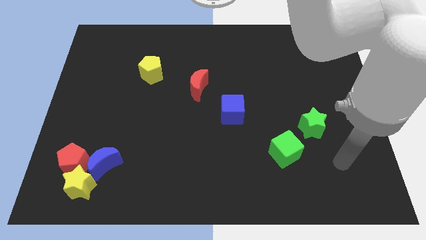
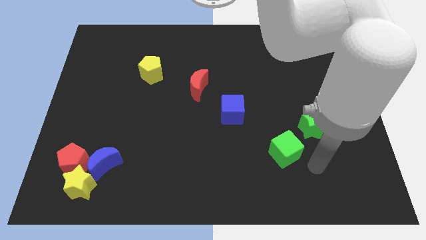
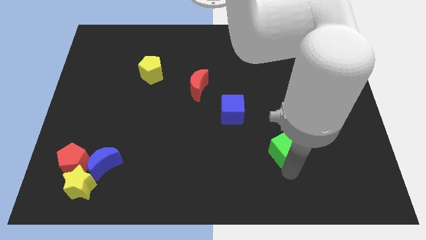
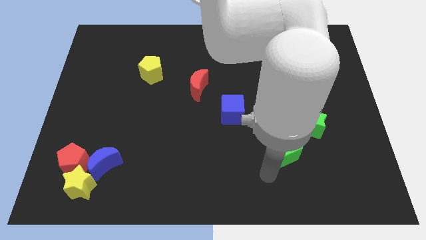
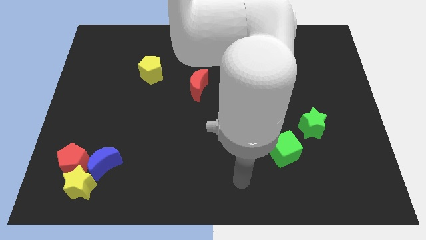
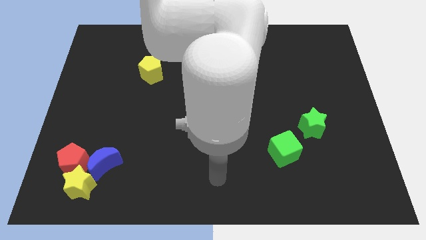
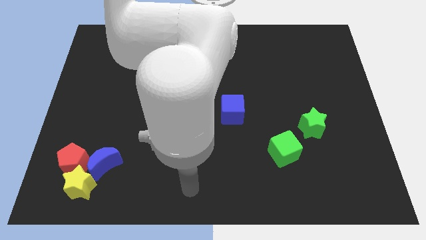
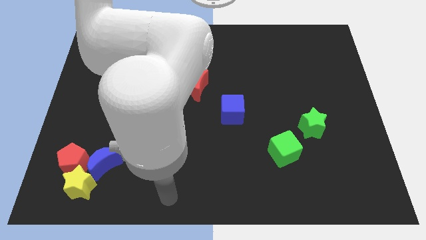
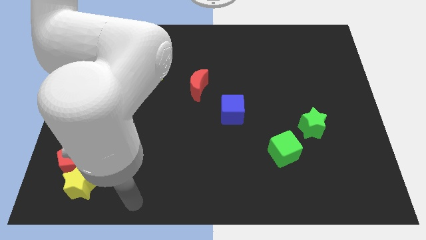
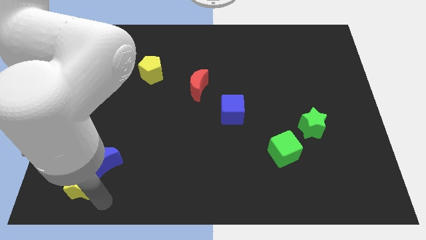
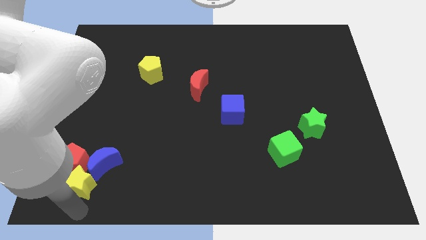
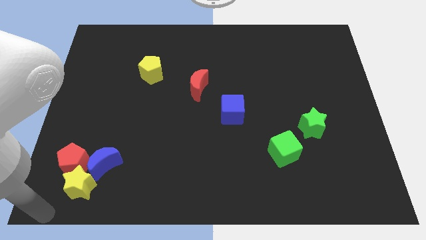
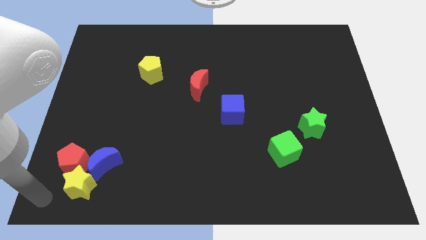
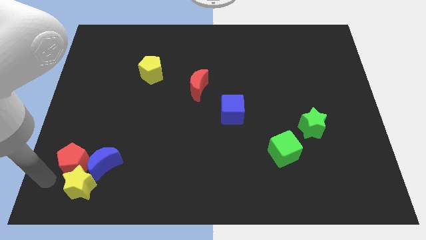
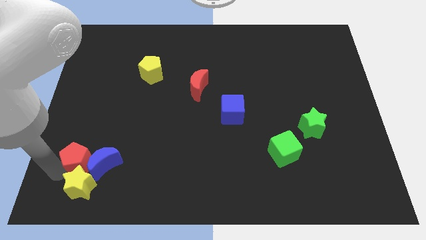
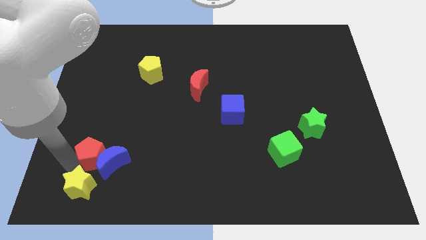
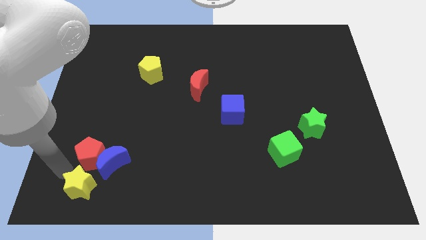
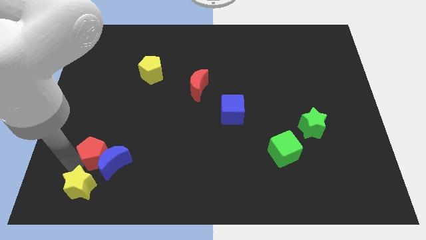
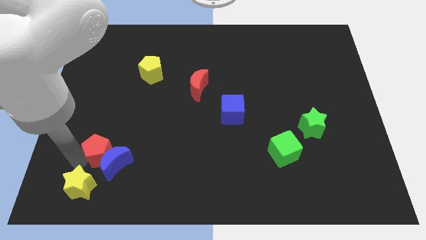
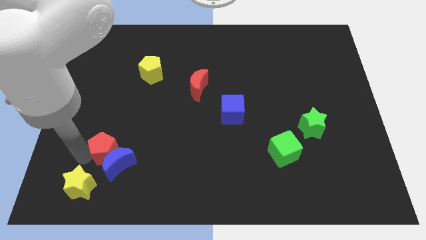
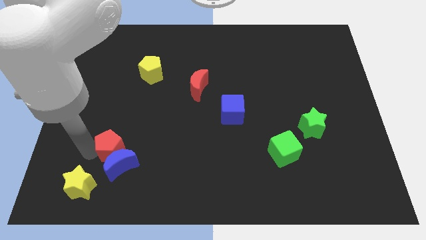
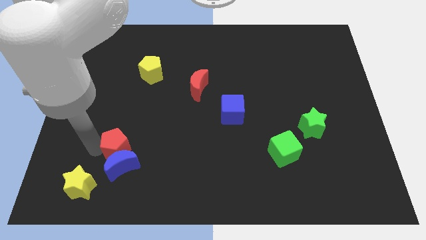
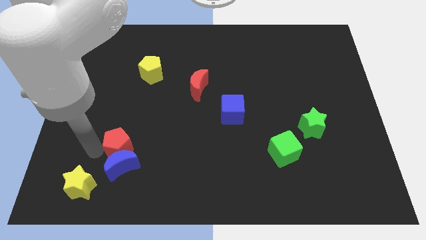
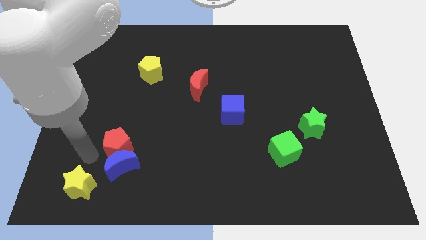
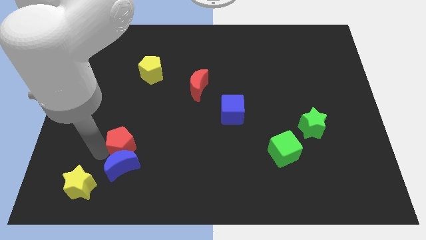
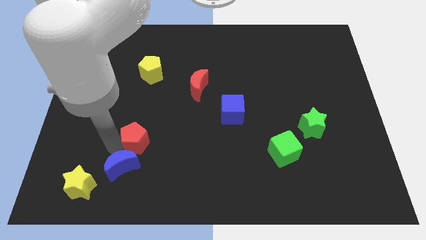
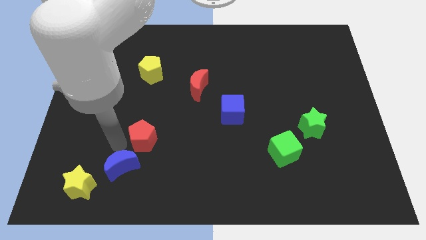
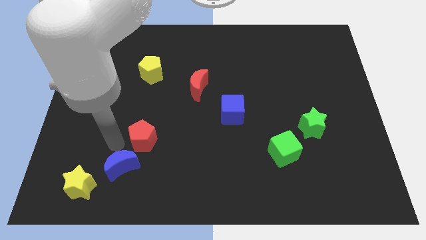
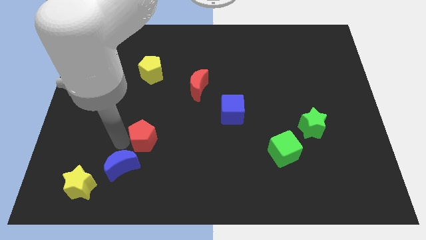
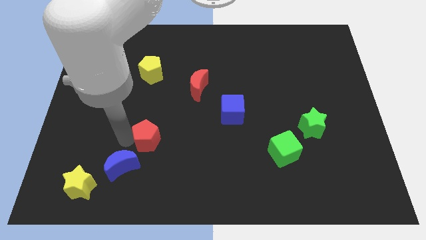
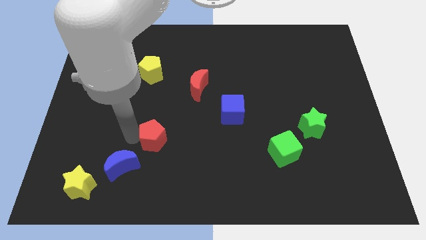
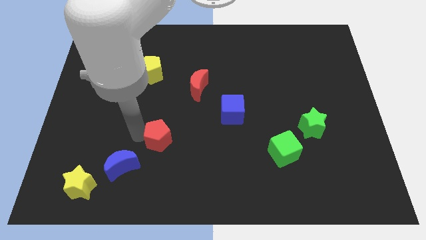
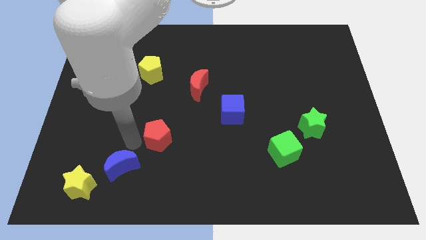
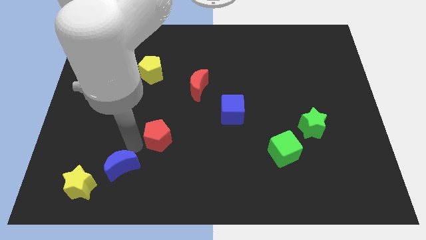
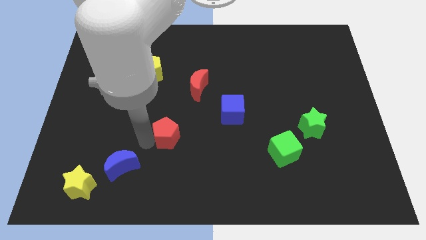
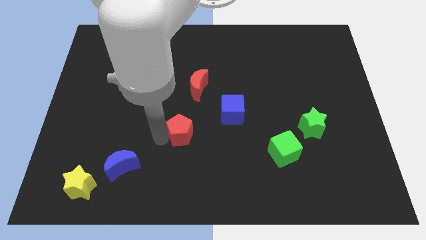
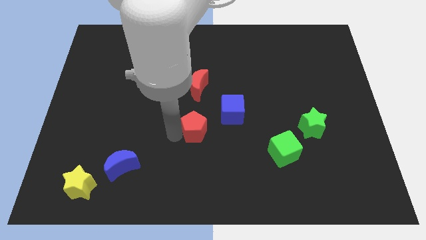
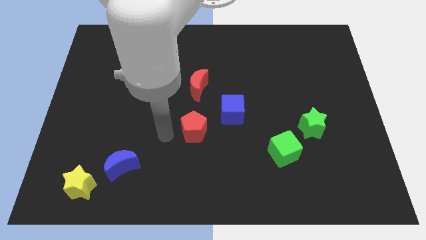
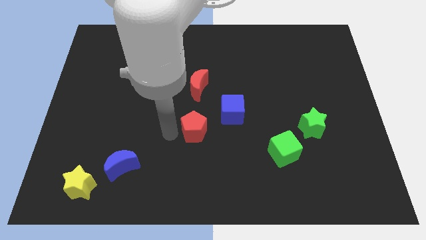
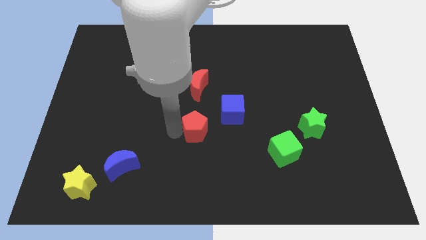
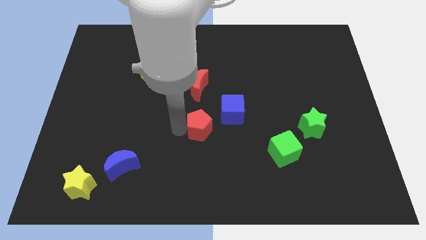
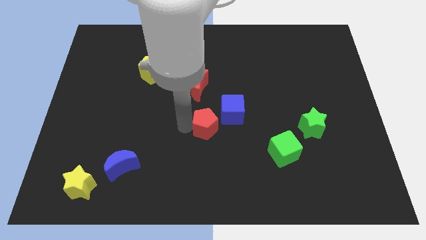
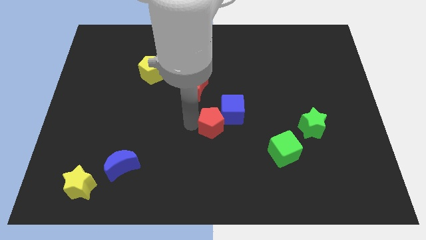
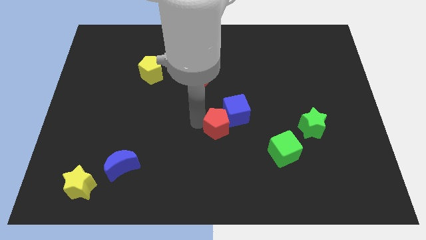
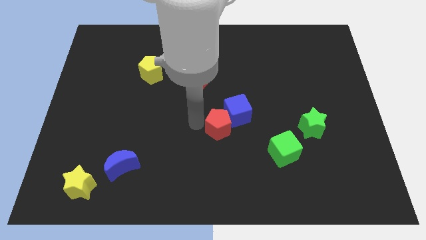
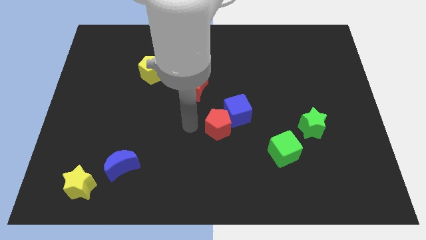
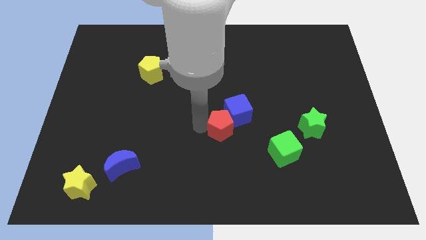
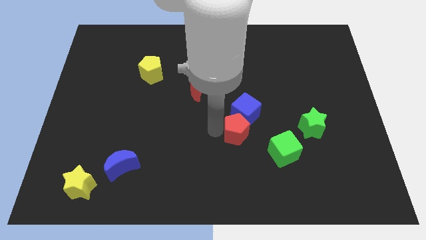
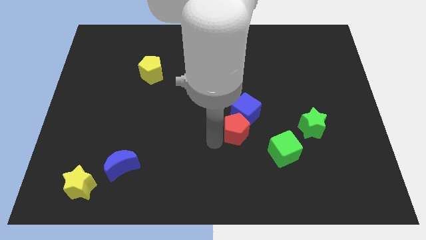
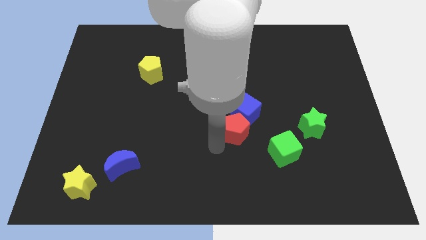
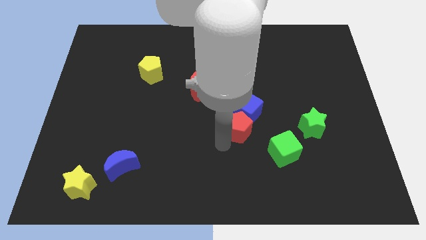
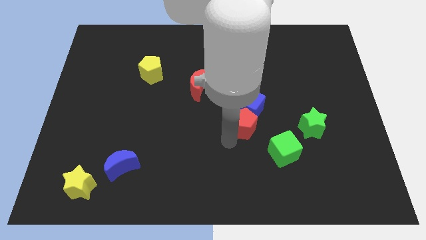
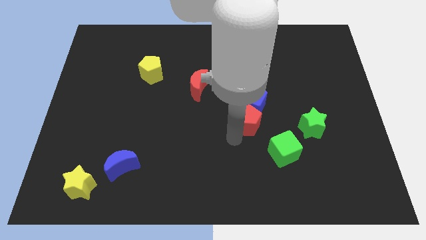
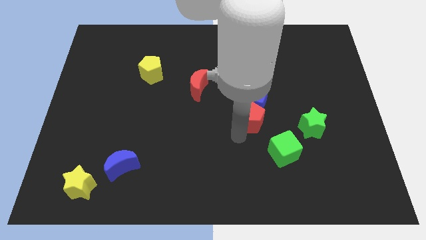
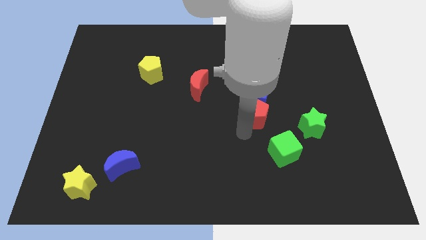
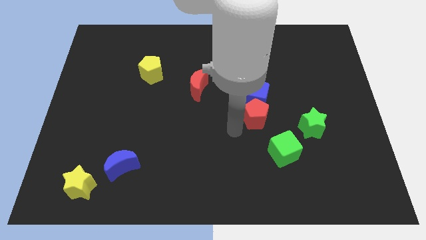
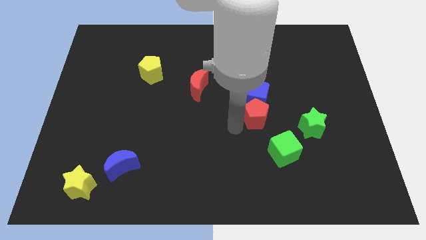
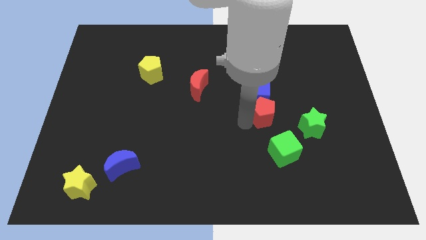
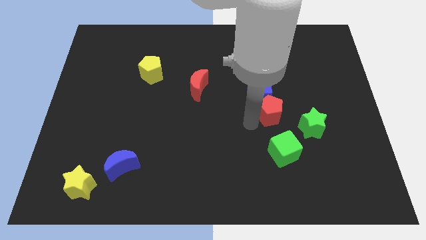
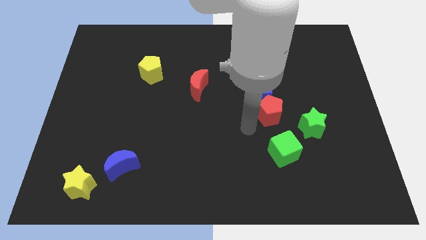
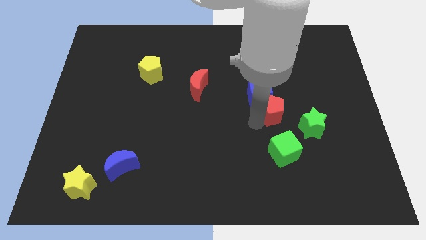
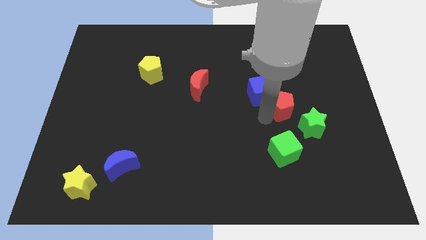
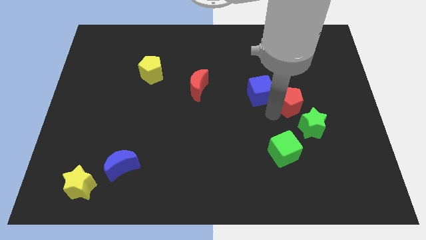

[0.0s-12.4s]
slide the red pentagon above the green star

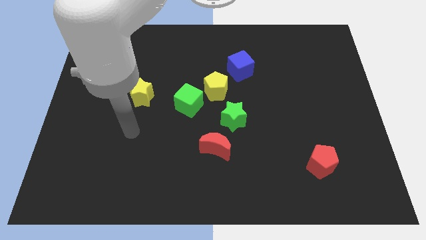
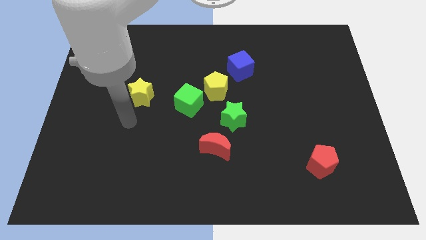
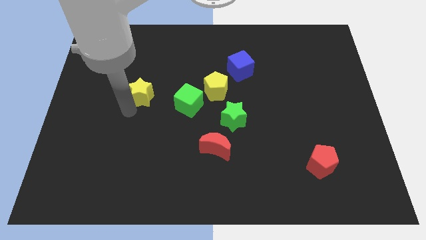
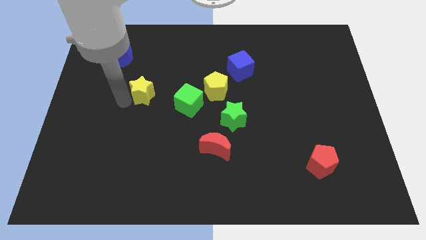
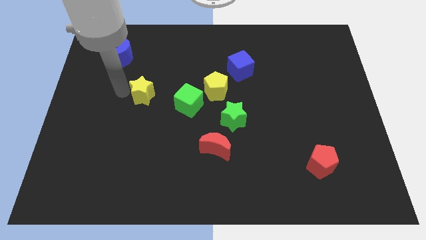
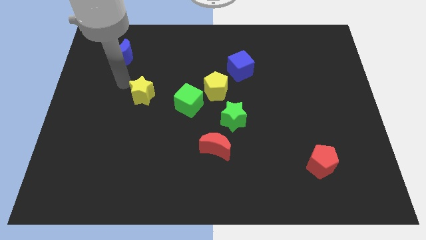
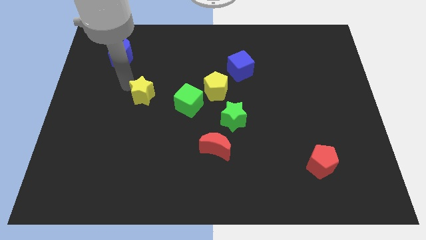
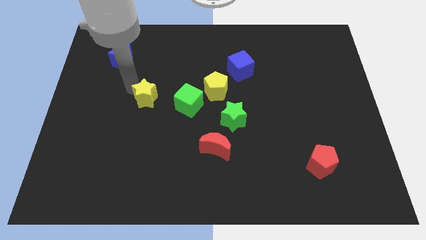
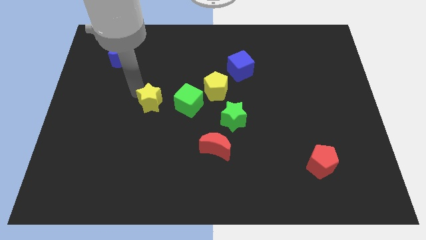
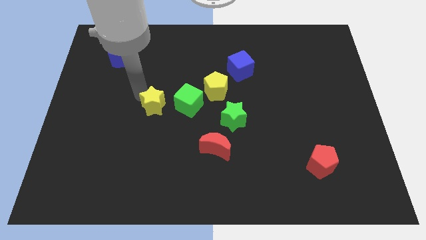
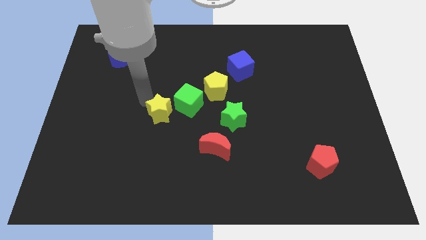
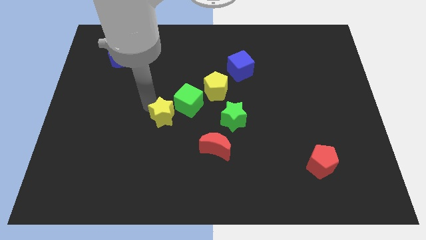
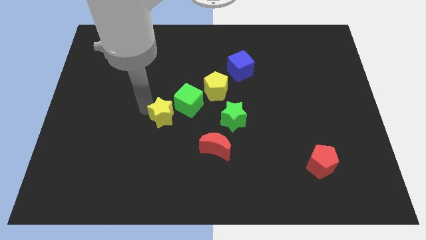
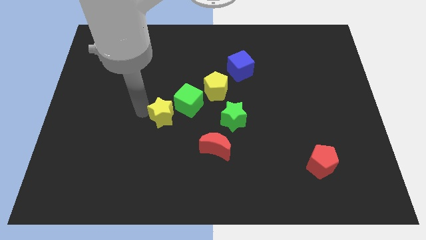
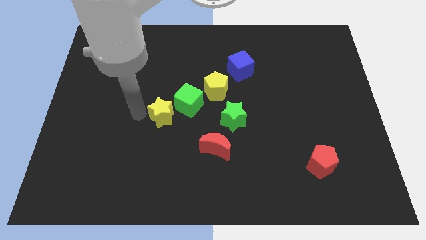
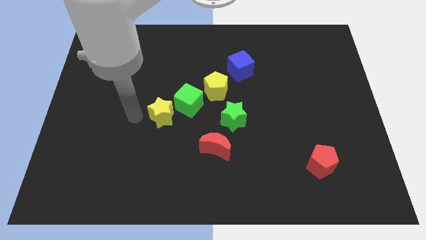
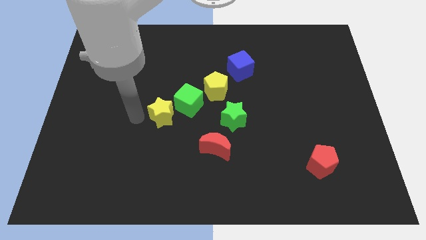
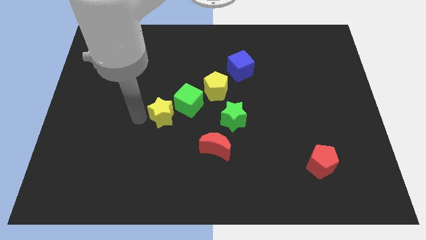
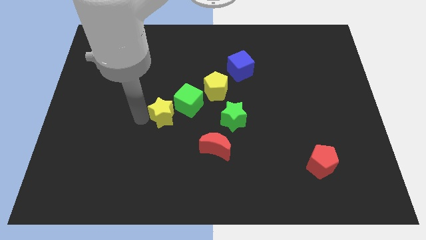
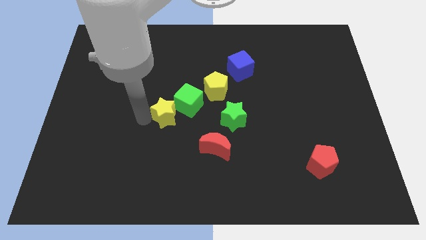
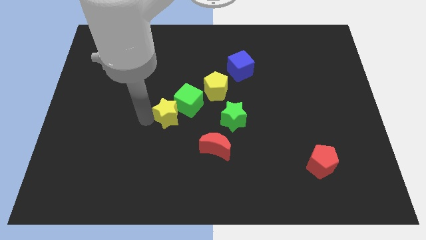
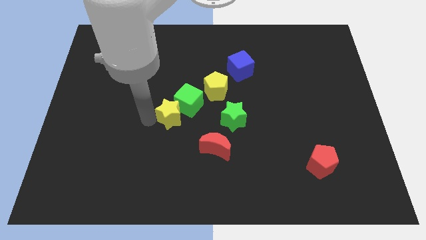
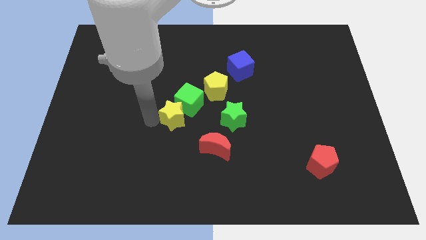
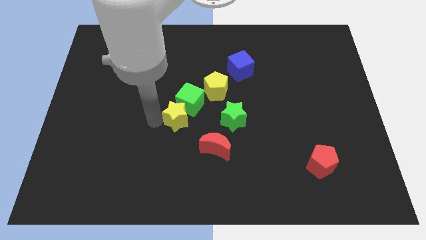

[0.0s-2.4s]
push the yellow star to the bottom left of the yellow pentagon
